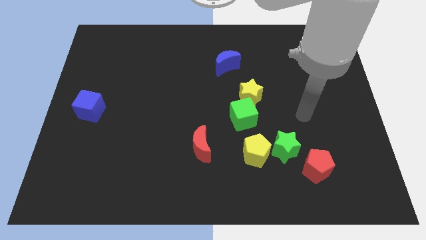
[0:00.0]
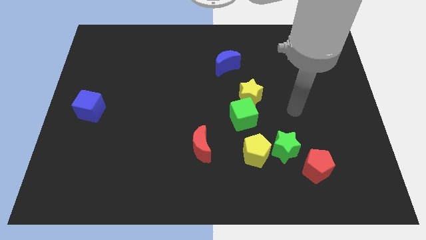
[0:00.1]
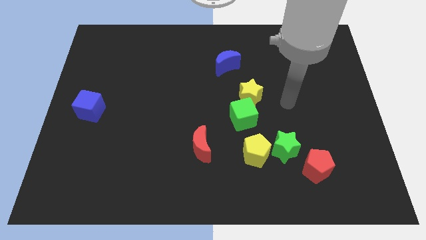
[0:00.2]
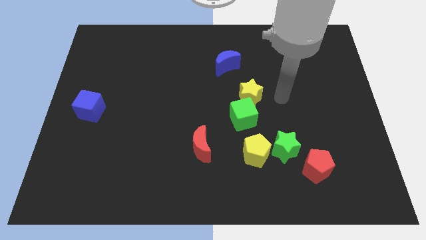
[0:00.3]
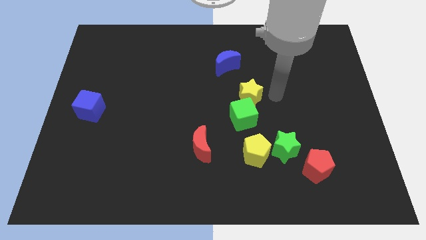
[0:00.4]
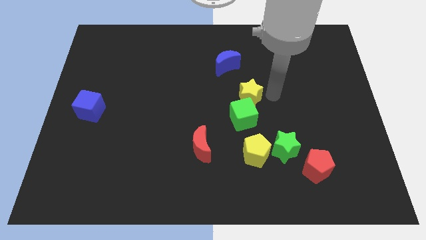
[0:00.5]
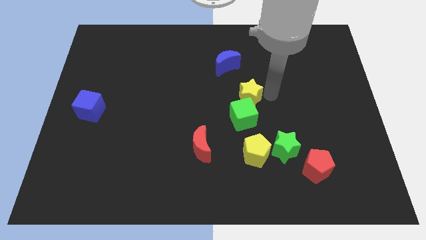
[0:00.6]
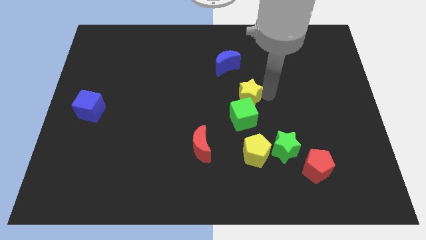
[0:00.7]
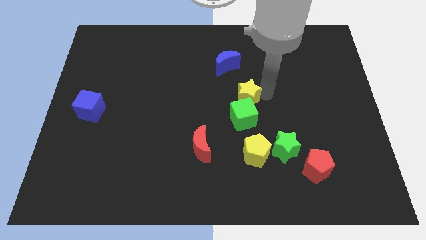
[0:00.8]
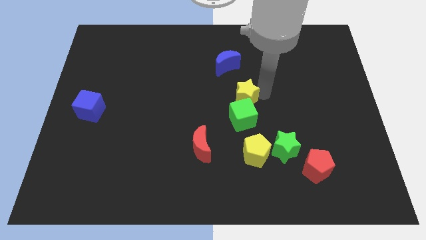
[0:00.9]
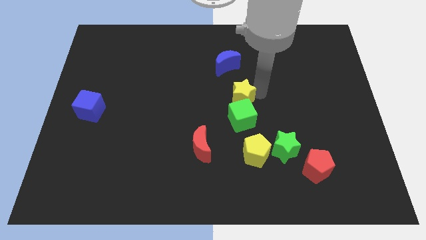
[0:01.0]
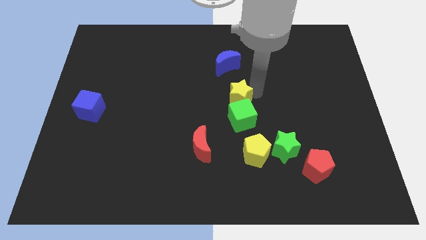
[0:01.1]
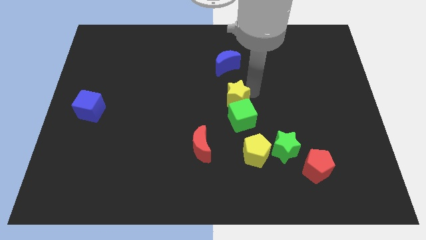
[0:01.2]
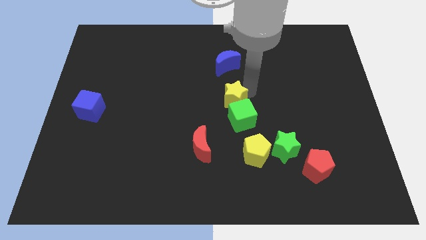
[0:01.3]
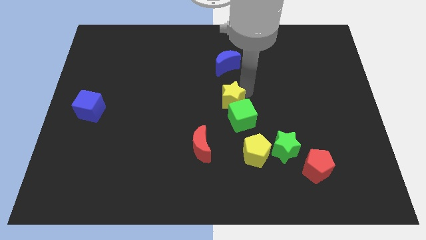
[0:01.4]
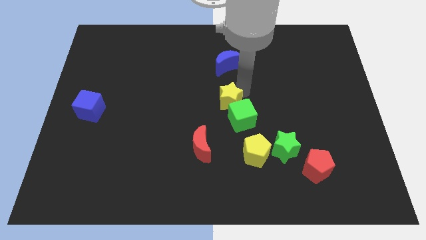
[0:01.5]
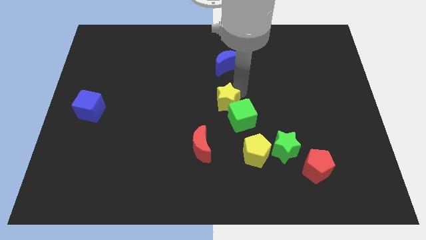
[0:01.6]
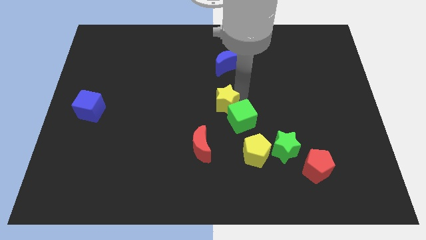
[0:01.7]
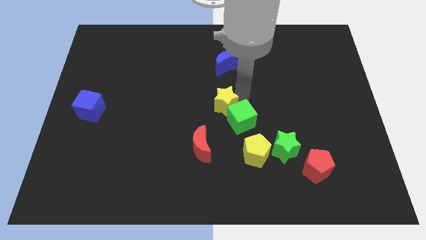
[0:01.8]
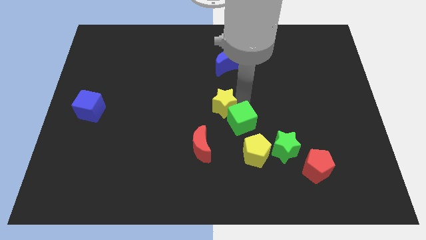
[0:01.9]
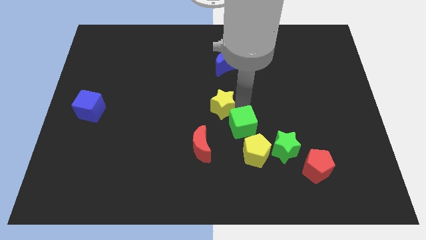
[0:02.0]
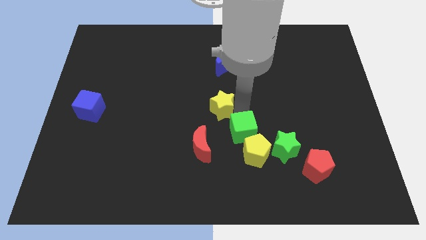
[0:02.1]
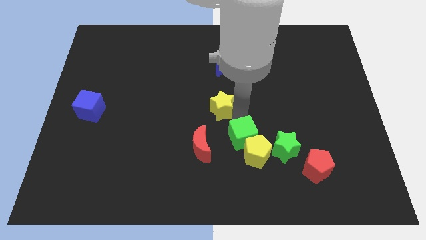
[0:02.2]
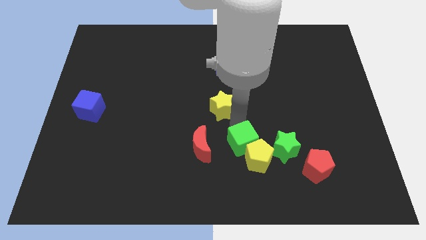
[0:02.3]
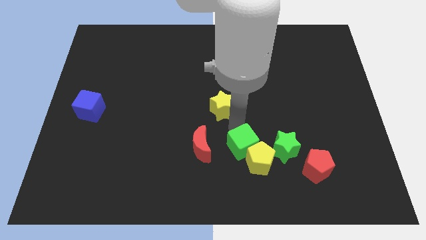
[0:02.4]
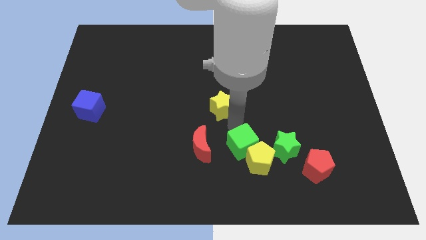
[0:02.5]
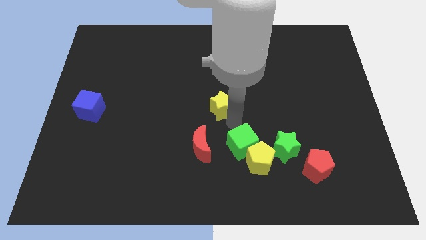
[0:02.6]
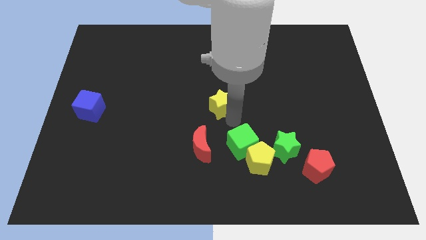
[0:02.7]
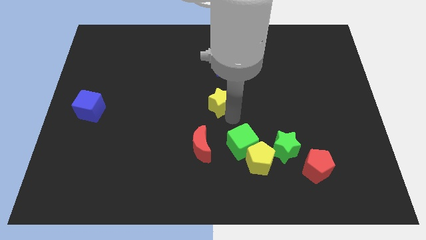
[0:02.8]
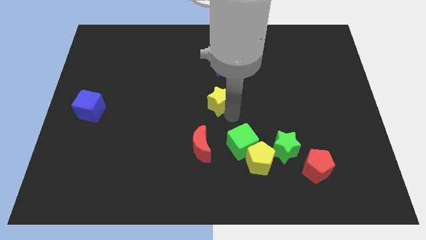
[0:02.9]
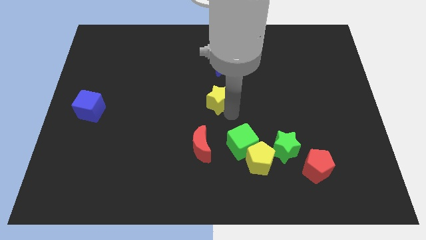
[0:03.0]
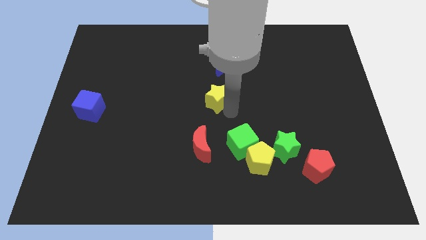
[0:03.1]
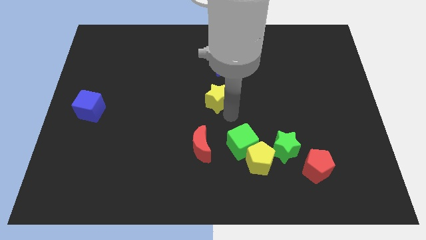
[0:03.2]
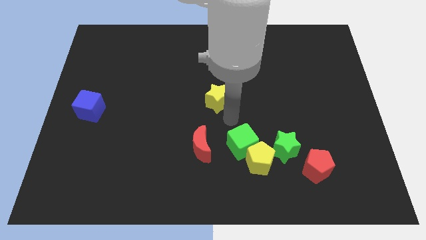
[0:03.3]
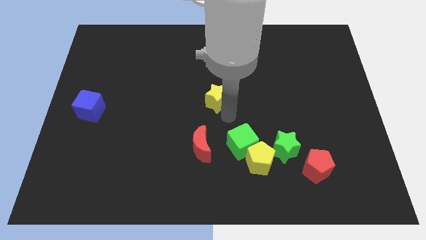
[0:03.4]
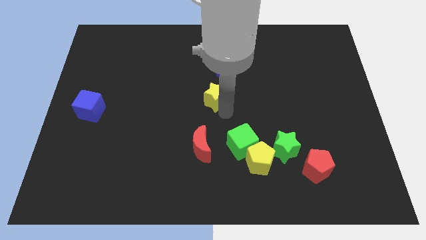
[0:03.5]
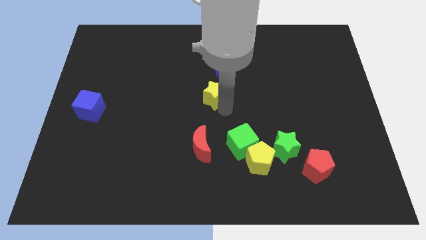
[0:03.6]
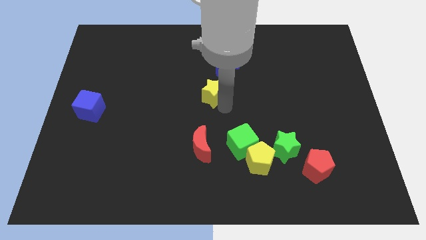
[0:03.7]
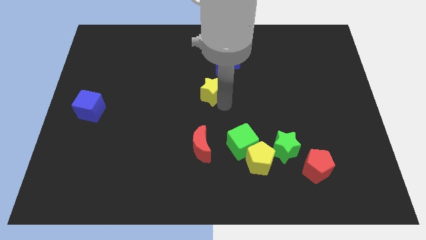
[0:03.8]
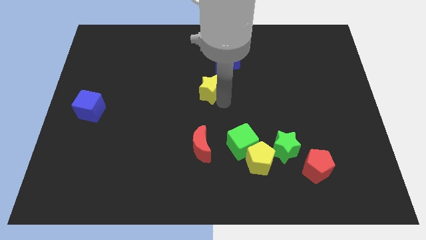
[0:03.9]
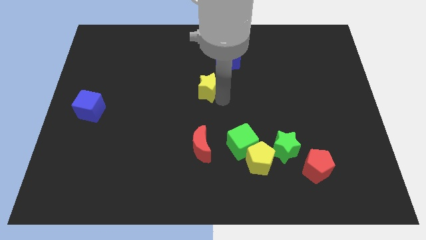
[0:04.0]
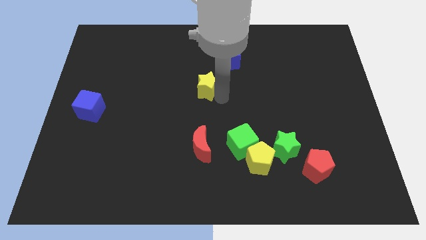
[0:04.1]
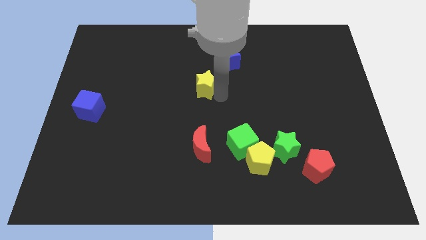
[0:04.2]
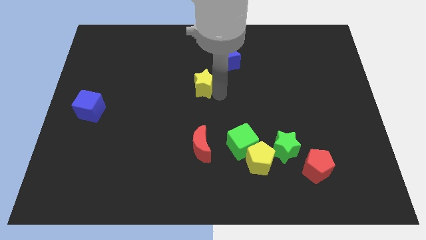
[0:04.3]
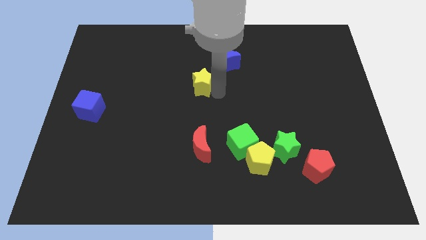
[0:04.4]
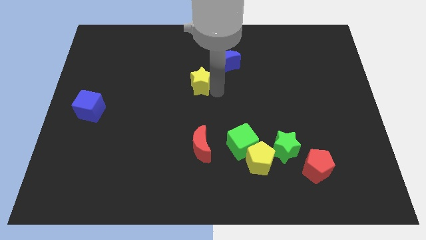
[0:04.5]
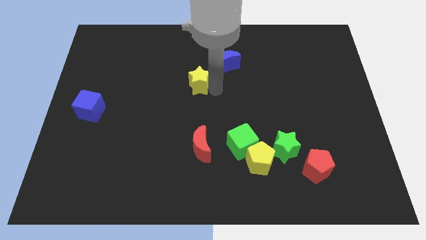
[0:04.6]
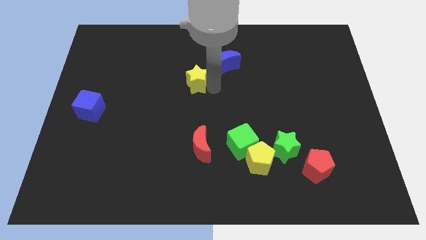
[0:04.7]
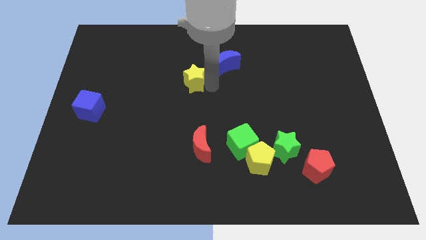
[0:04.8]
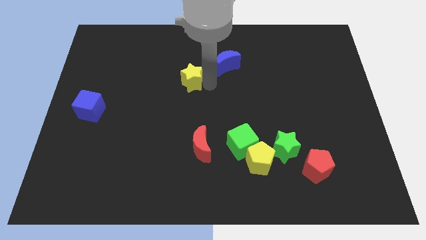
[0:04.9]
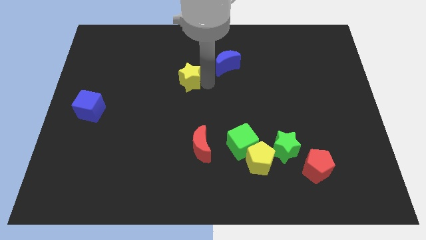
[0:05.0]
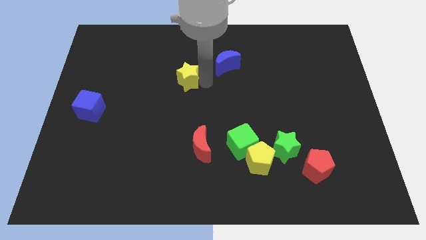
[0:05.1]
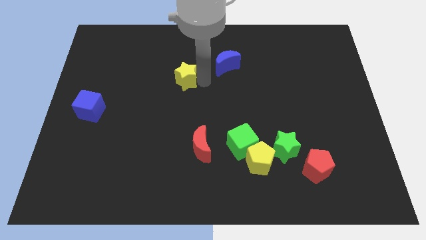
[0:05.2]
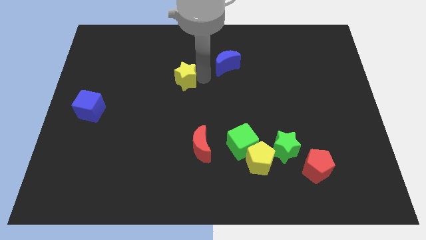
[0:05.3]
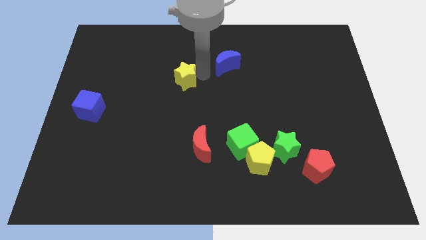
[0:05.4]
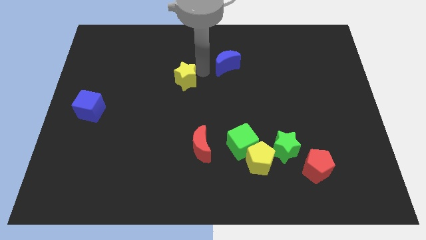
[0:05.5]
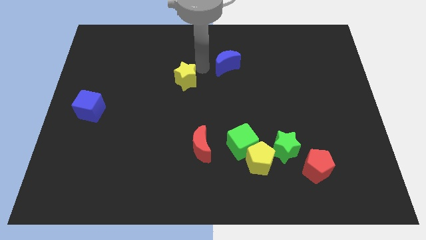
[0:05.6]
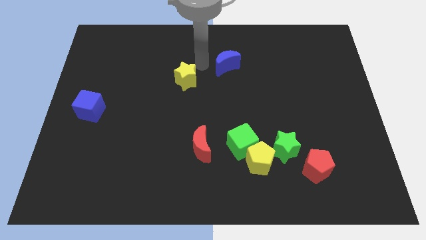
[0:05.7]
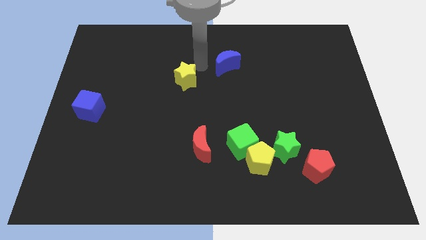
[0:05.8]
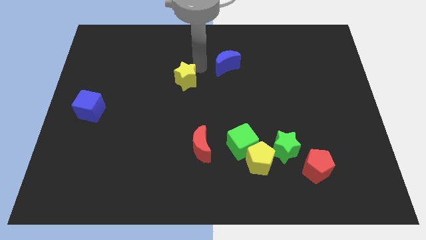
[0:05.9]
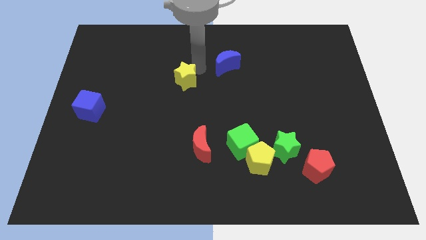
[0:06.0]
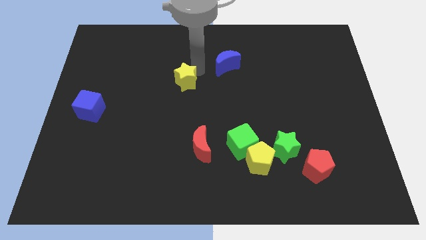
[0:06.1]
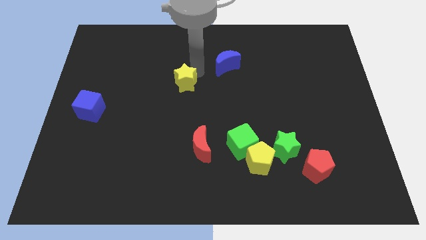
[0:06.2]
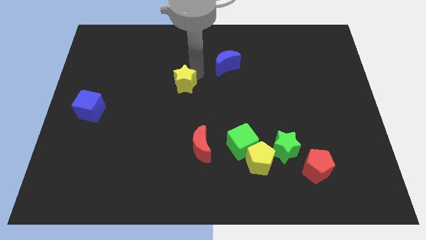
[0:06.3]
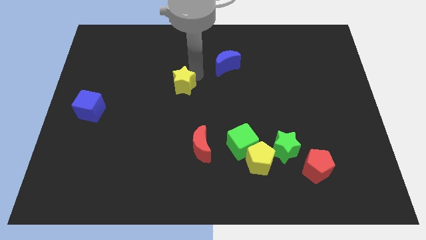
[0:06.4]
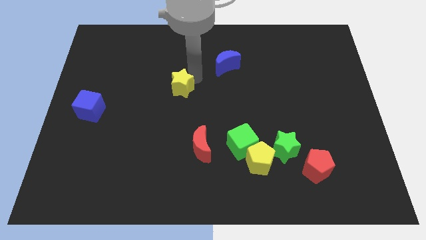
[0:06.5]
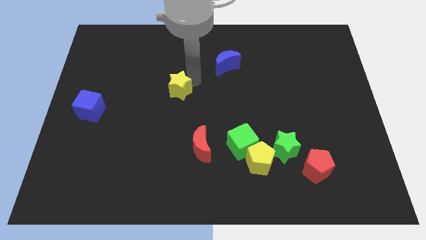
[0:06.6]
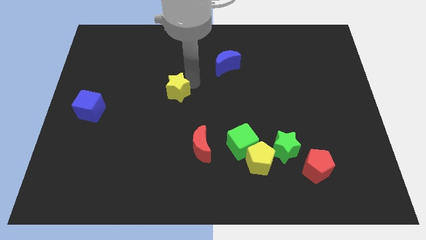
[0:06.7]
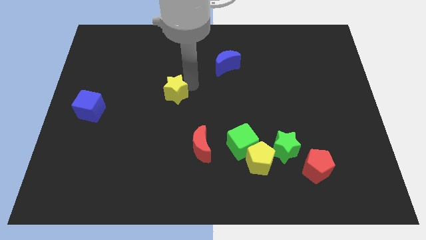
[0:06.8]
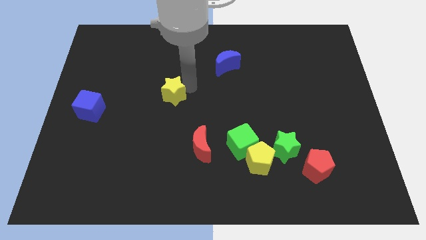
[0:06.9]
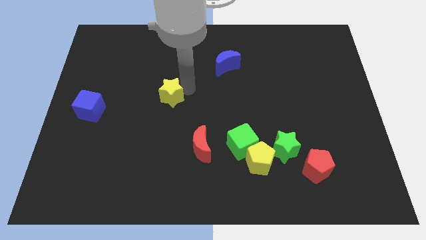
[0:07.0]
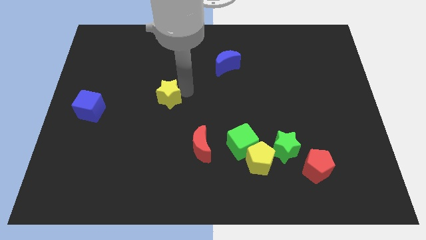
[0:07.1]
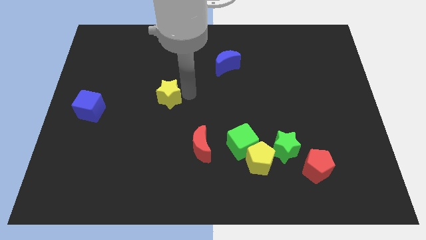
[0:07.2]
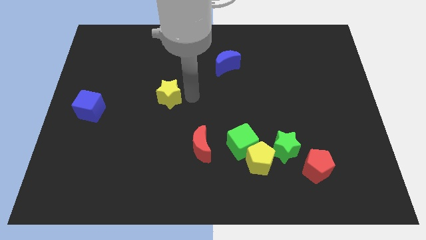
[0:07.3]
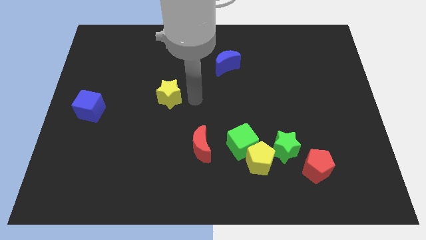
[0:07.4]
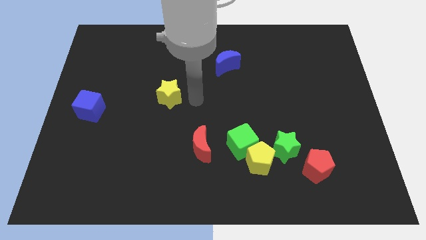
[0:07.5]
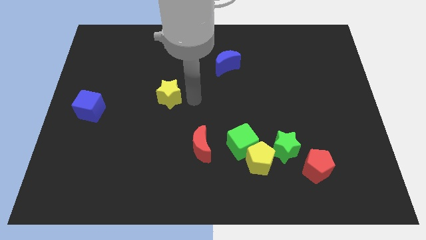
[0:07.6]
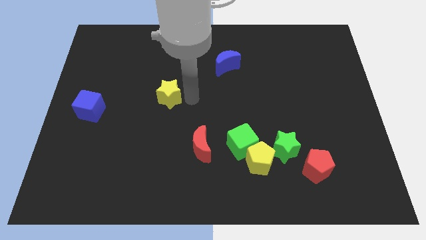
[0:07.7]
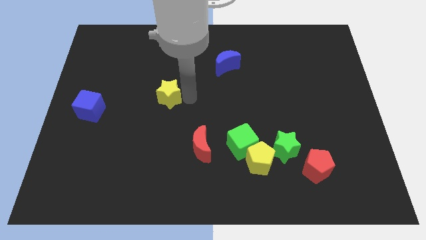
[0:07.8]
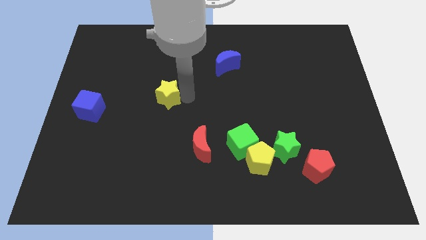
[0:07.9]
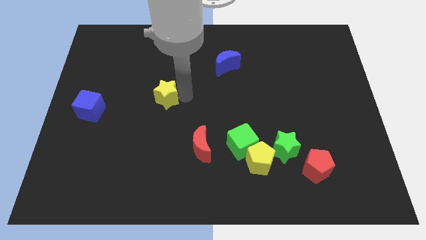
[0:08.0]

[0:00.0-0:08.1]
slide the yellow star to the left
